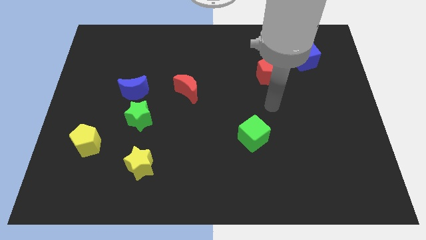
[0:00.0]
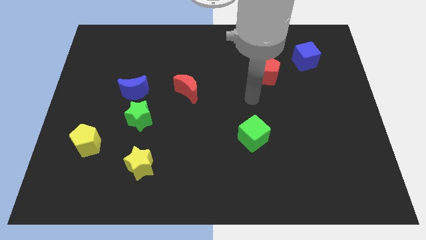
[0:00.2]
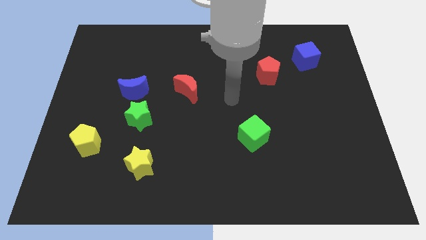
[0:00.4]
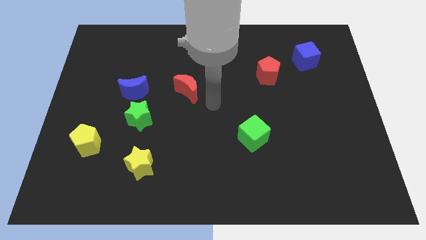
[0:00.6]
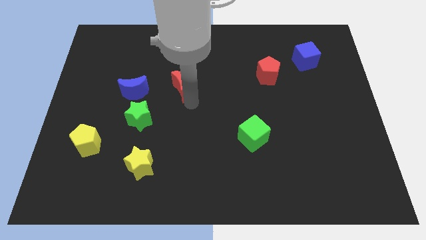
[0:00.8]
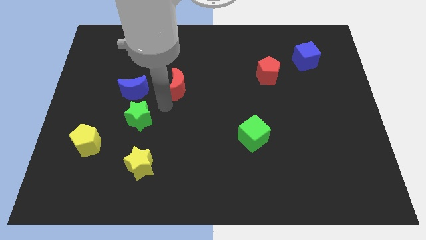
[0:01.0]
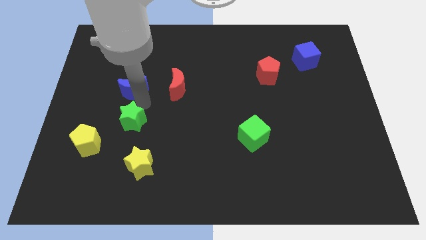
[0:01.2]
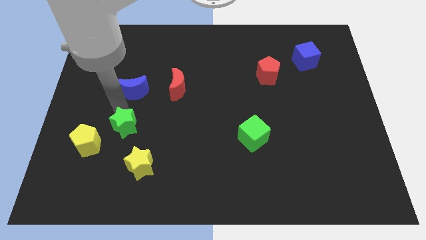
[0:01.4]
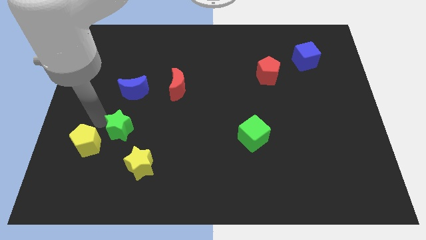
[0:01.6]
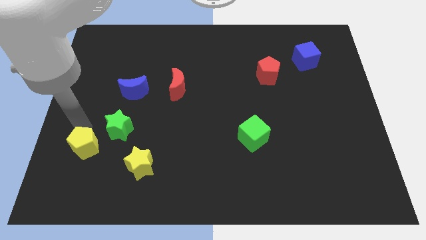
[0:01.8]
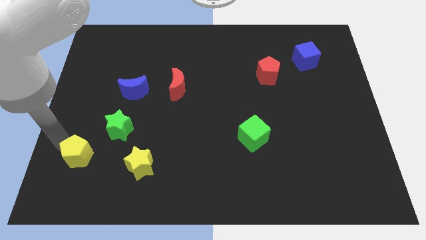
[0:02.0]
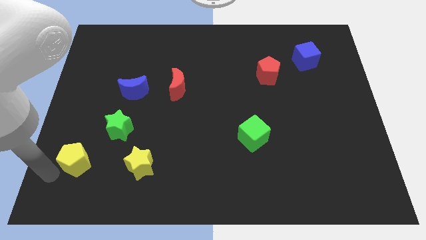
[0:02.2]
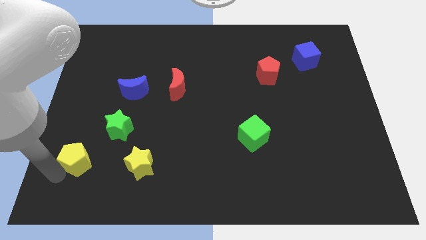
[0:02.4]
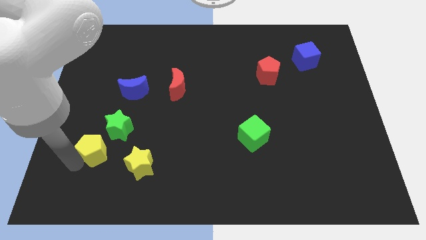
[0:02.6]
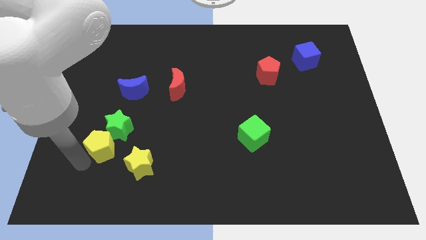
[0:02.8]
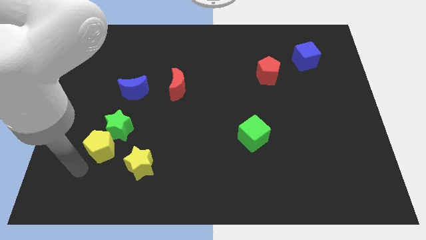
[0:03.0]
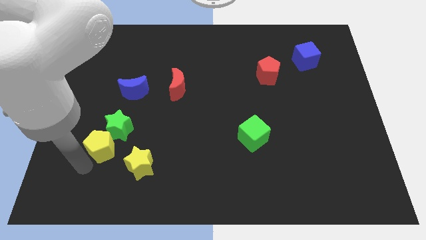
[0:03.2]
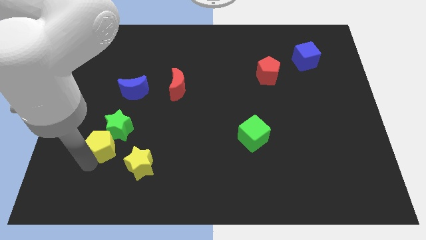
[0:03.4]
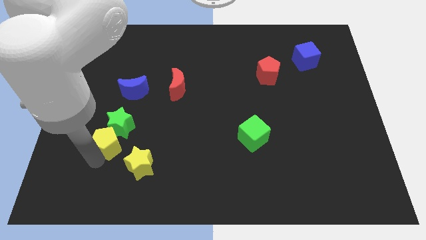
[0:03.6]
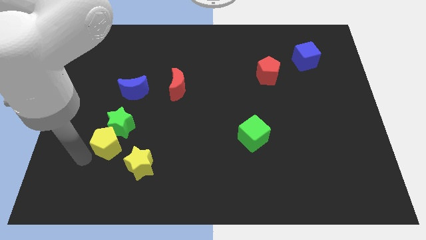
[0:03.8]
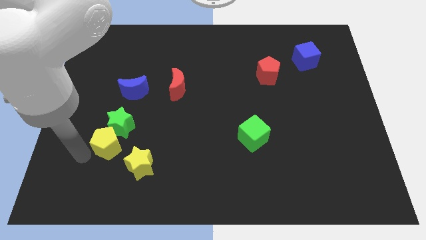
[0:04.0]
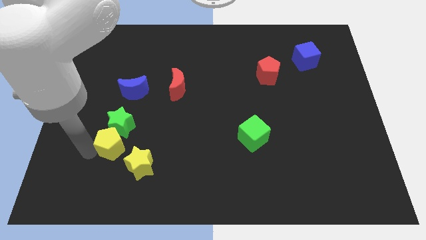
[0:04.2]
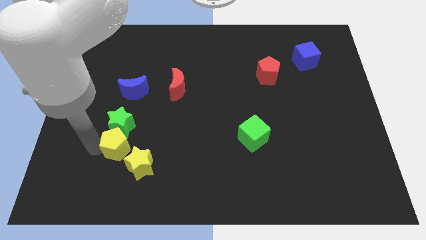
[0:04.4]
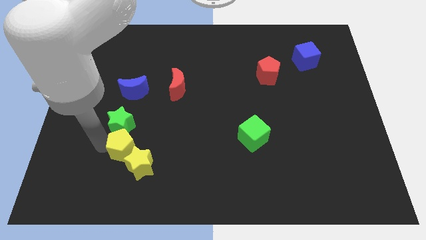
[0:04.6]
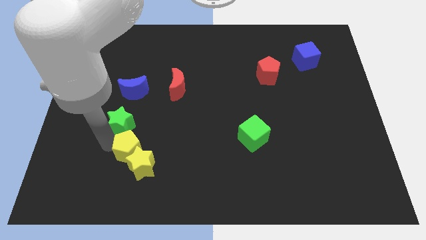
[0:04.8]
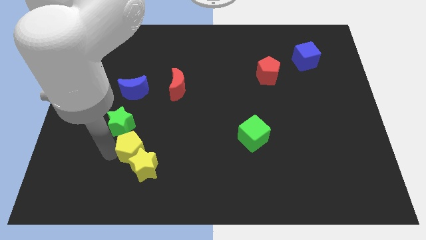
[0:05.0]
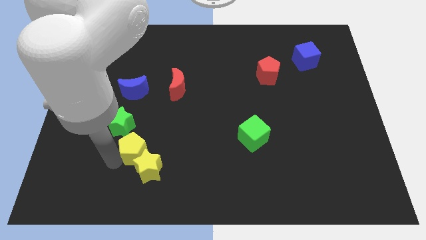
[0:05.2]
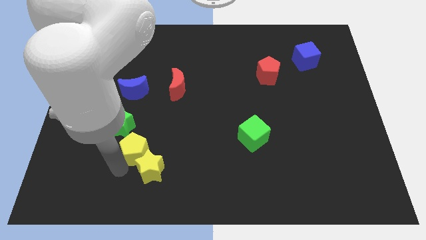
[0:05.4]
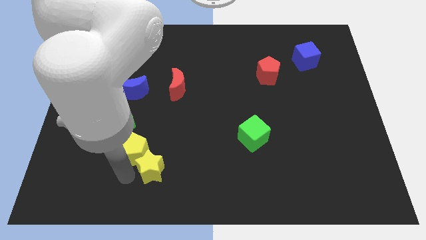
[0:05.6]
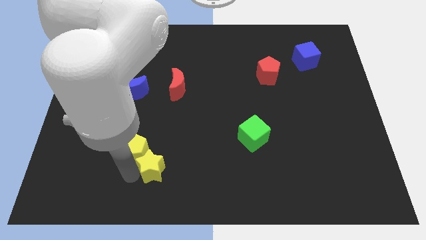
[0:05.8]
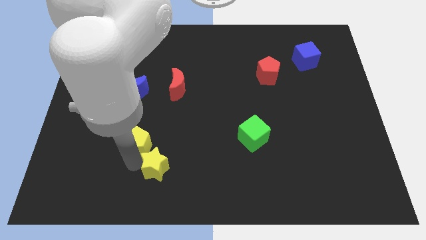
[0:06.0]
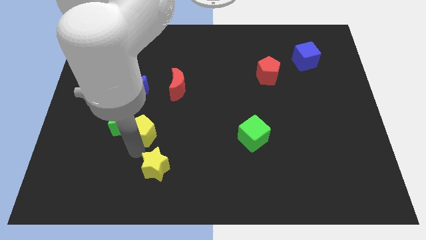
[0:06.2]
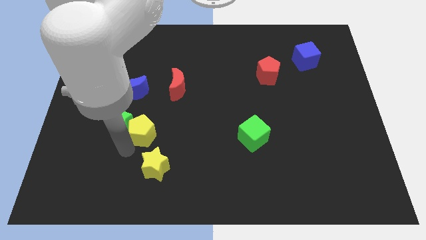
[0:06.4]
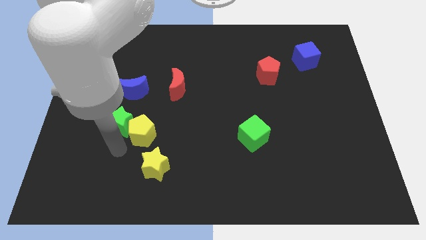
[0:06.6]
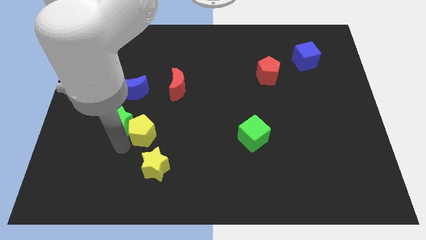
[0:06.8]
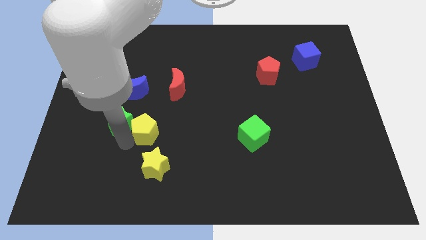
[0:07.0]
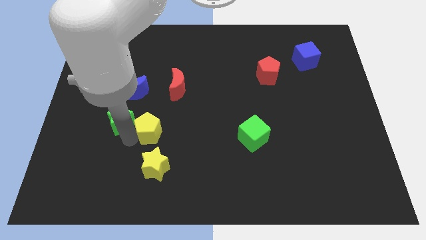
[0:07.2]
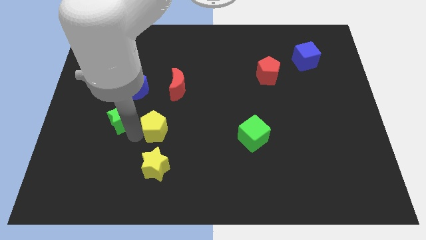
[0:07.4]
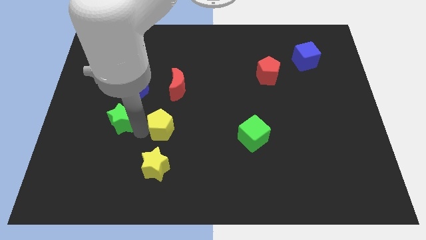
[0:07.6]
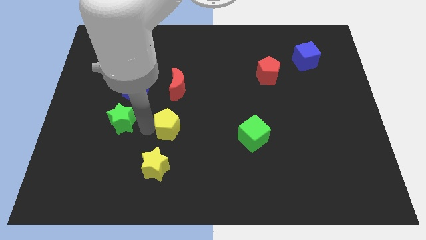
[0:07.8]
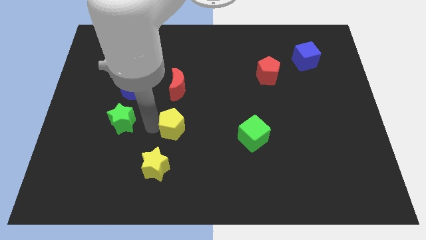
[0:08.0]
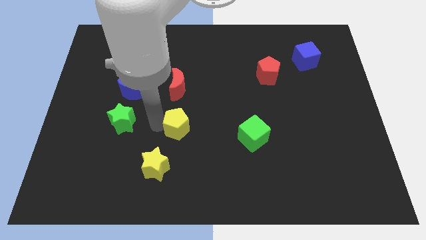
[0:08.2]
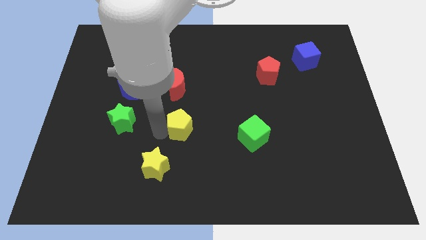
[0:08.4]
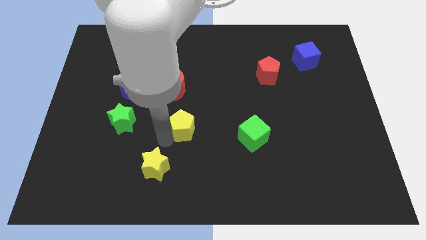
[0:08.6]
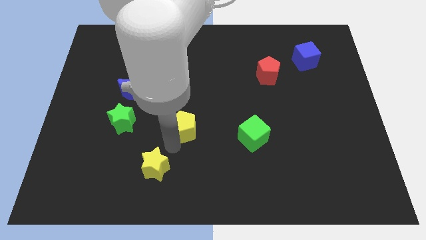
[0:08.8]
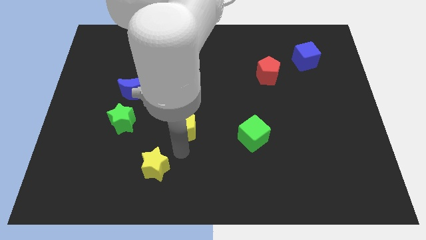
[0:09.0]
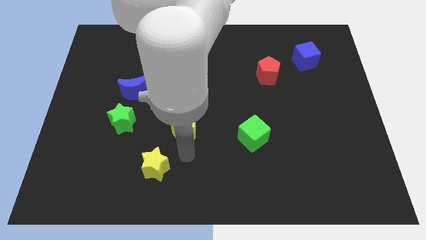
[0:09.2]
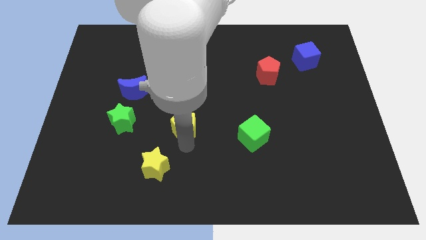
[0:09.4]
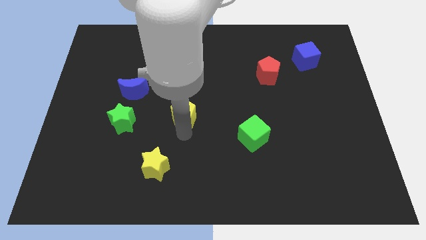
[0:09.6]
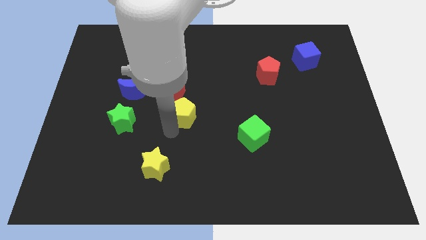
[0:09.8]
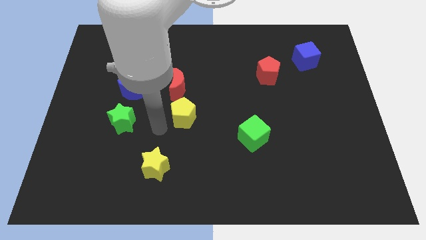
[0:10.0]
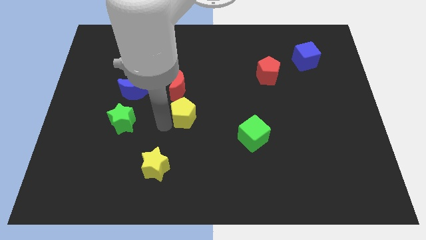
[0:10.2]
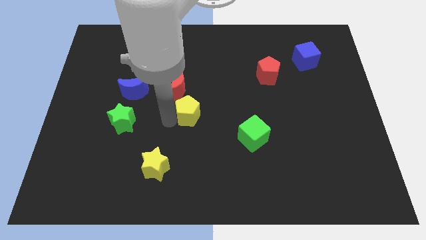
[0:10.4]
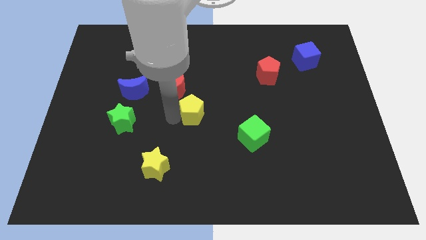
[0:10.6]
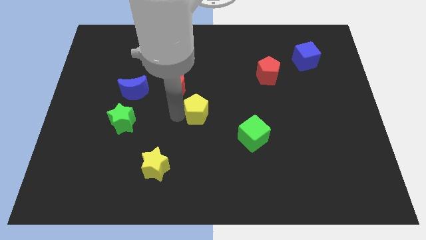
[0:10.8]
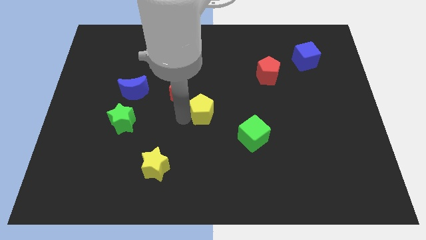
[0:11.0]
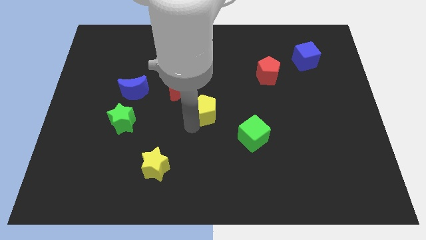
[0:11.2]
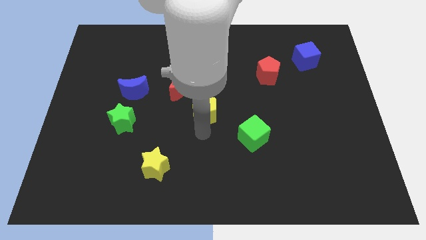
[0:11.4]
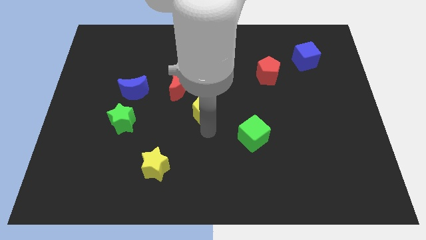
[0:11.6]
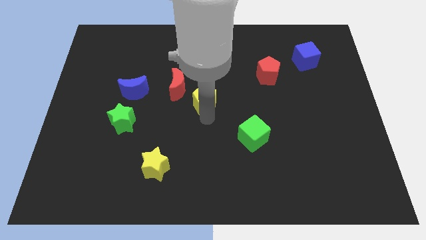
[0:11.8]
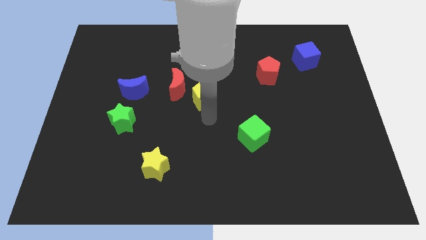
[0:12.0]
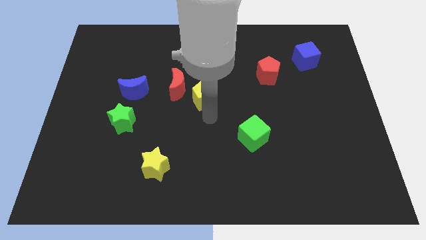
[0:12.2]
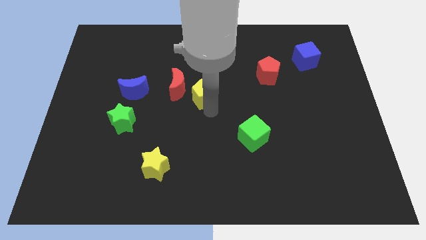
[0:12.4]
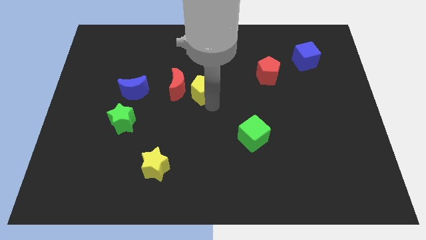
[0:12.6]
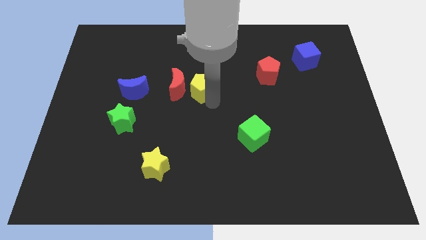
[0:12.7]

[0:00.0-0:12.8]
move the yellow pentagon to the top right of the red moon

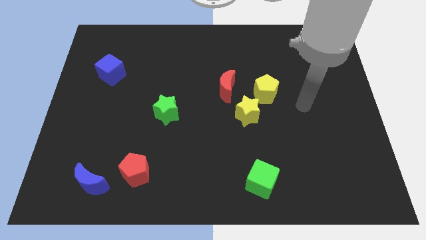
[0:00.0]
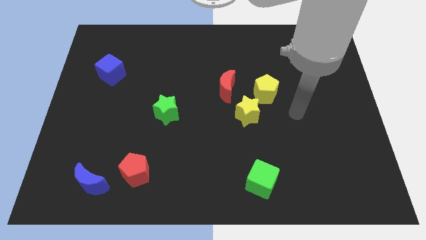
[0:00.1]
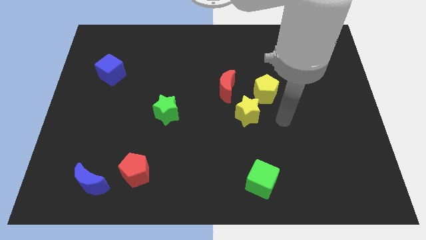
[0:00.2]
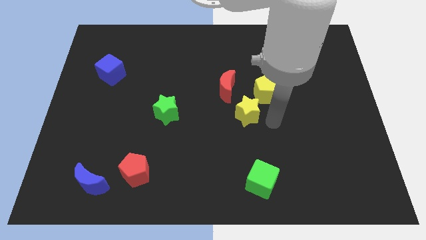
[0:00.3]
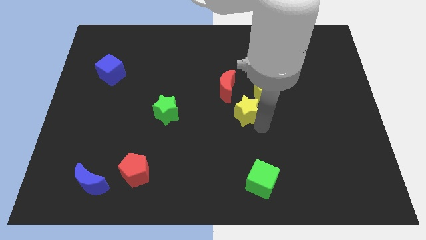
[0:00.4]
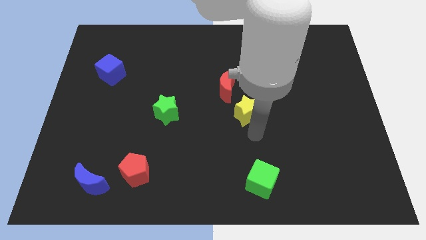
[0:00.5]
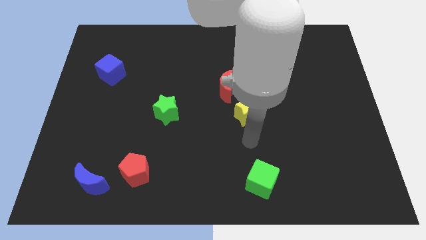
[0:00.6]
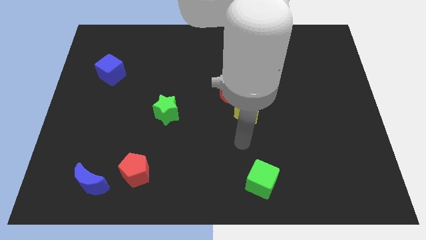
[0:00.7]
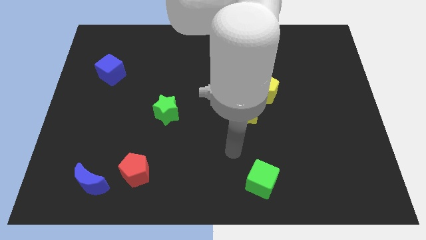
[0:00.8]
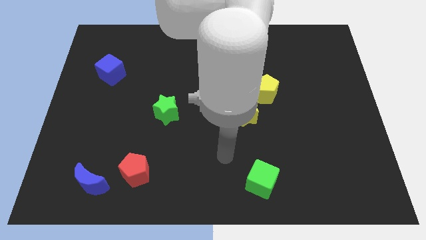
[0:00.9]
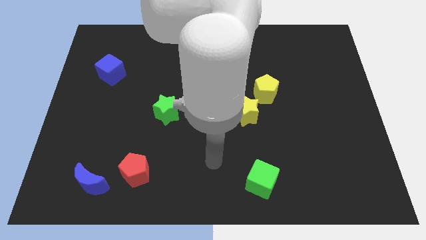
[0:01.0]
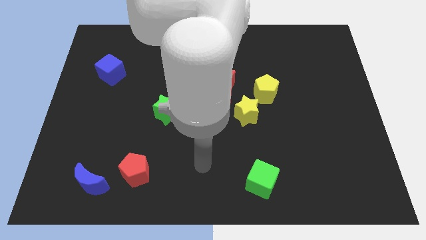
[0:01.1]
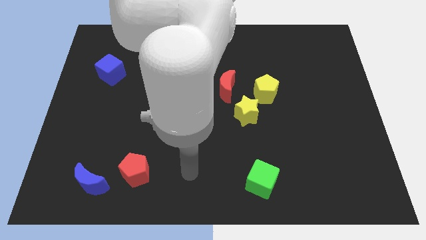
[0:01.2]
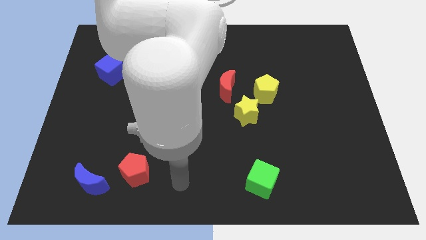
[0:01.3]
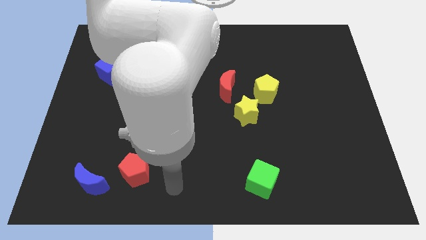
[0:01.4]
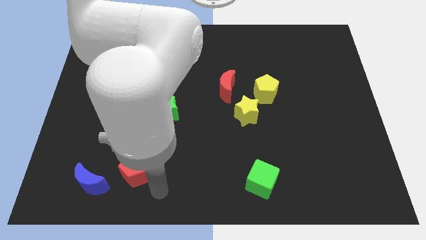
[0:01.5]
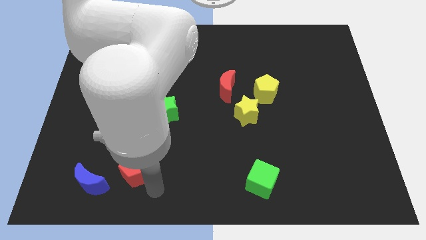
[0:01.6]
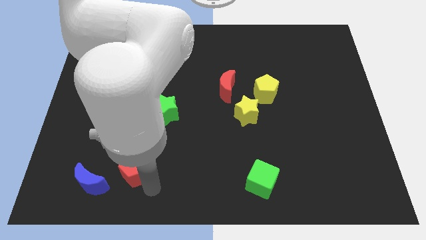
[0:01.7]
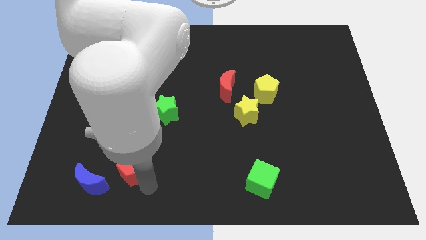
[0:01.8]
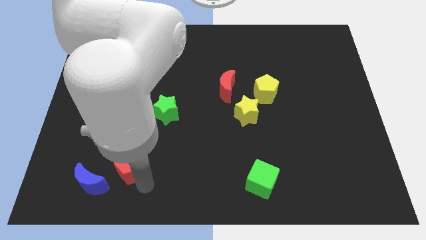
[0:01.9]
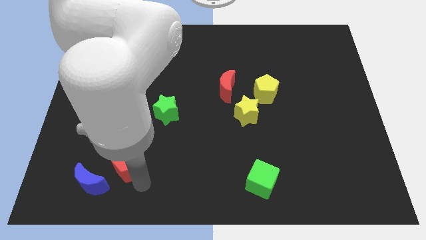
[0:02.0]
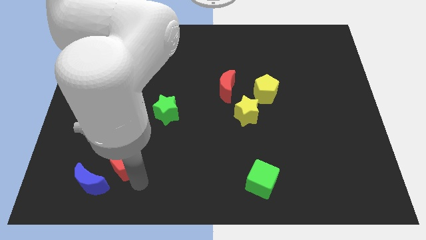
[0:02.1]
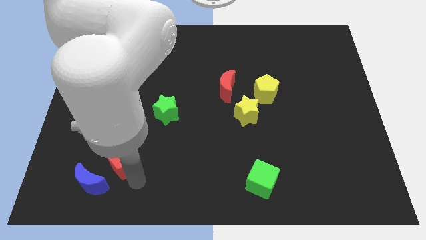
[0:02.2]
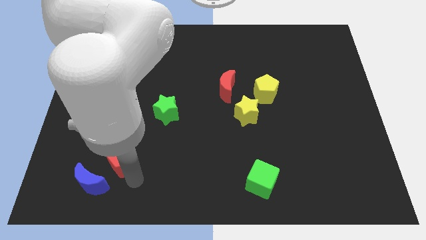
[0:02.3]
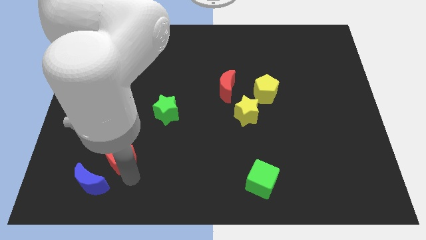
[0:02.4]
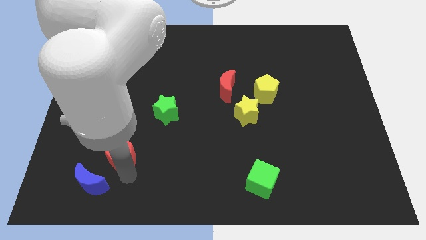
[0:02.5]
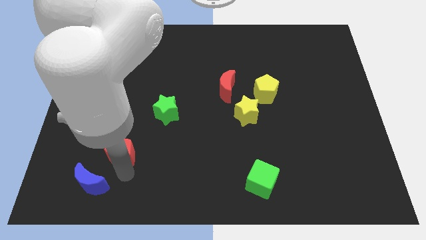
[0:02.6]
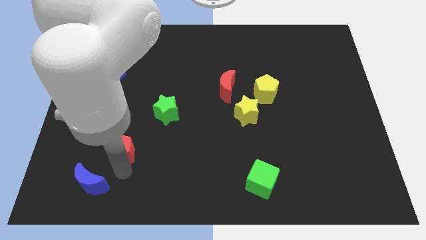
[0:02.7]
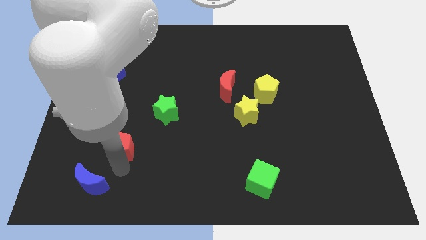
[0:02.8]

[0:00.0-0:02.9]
move the red pentagon to the top side of the blue moon
